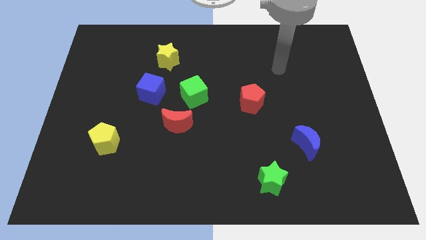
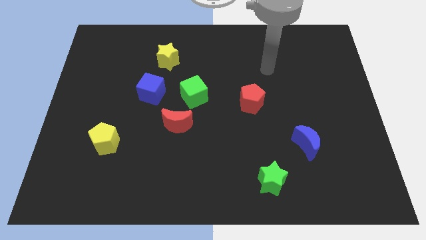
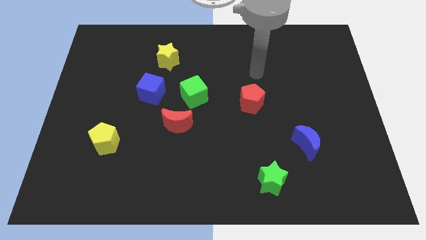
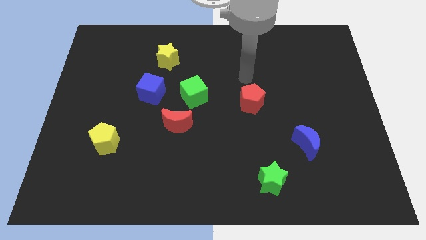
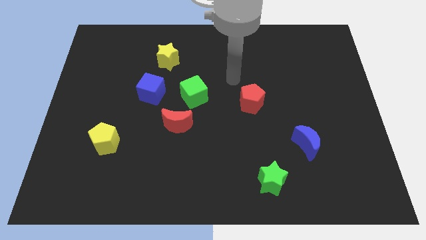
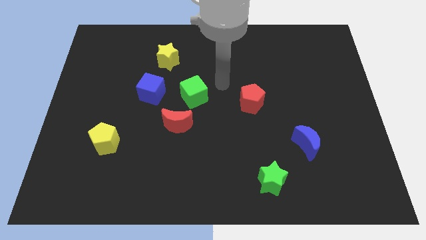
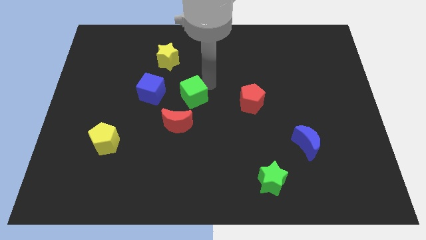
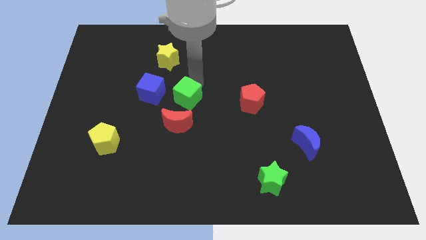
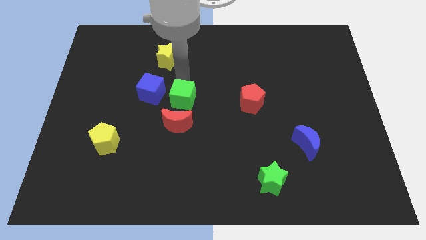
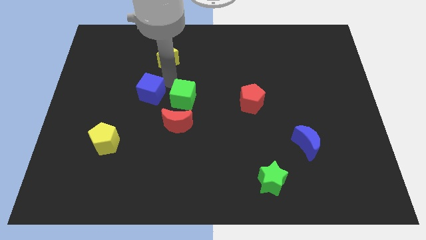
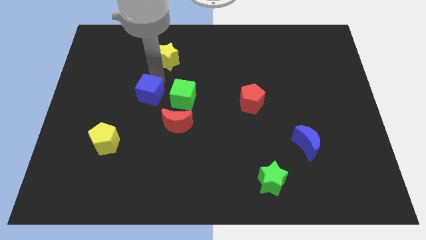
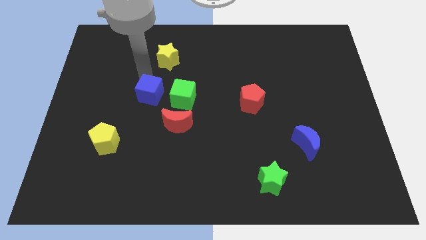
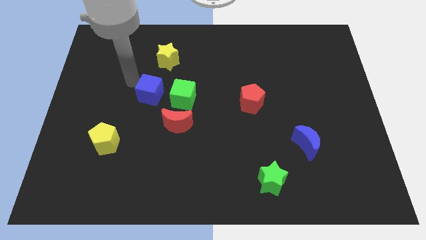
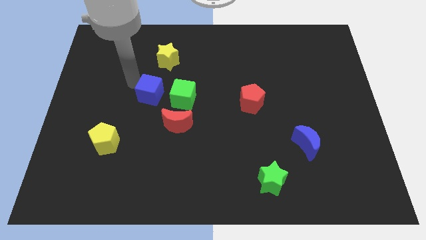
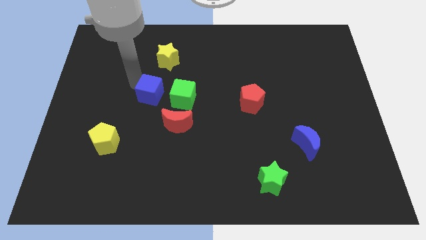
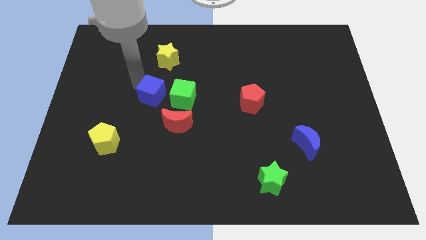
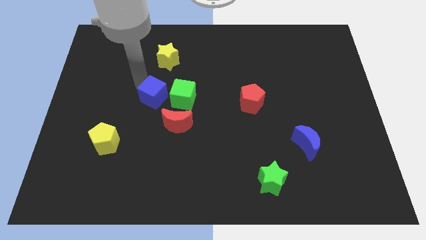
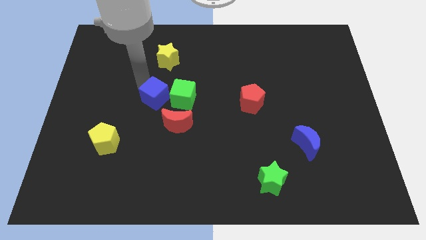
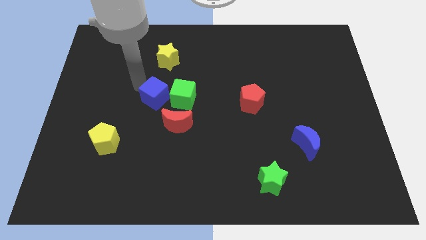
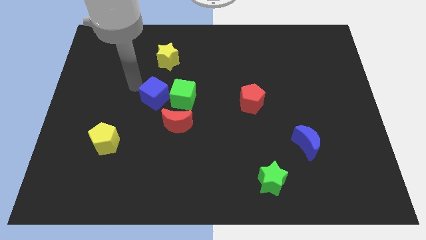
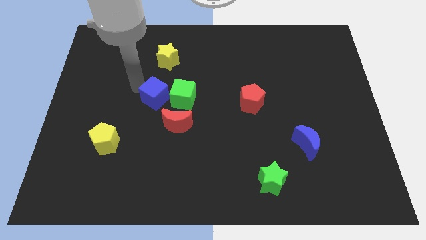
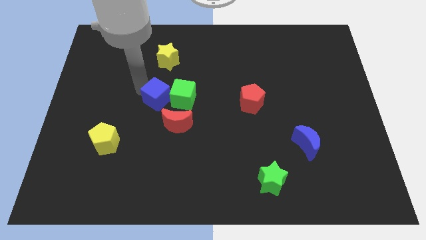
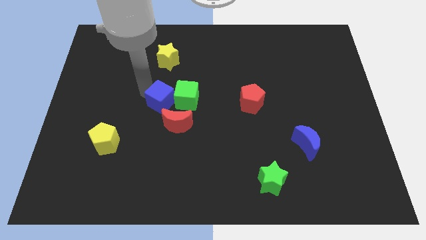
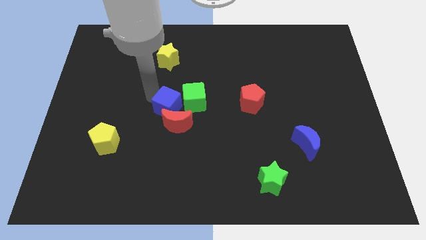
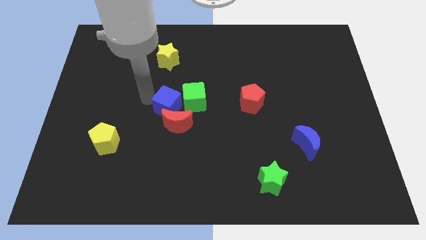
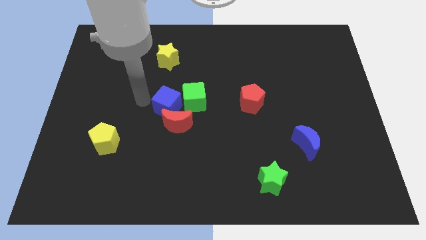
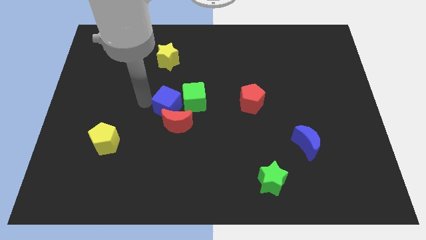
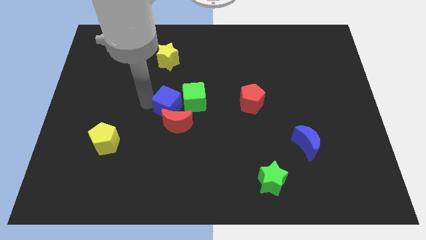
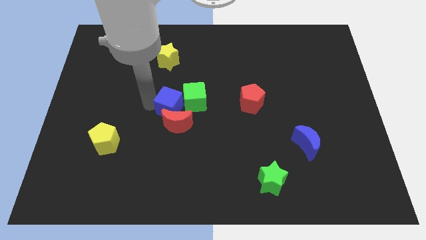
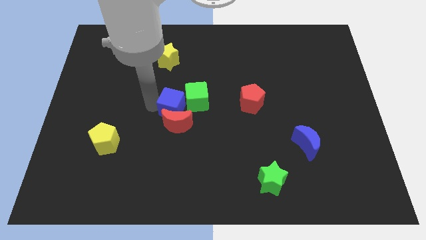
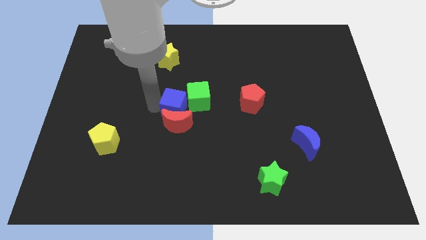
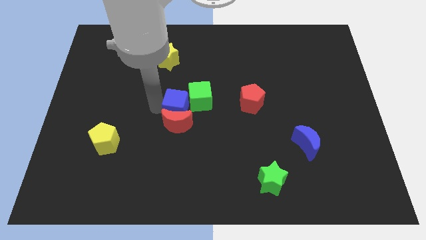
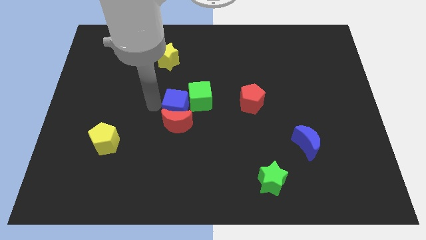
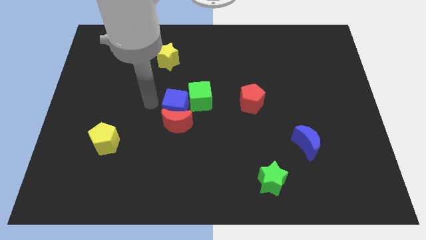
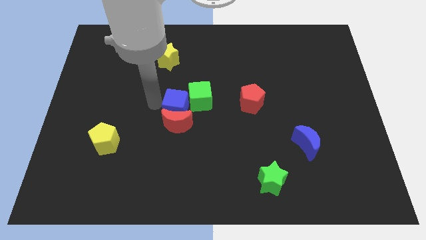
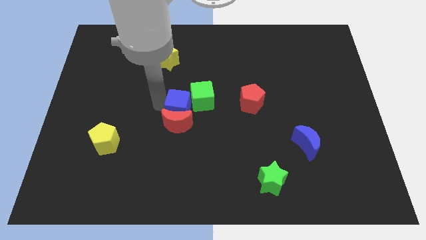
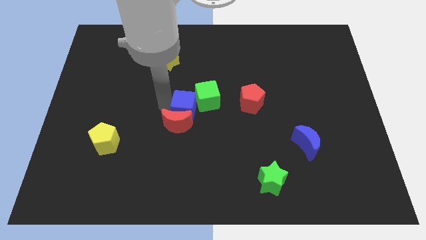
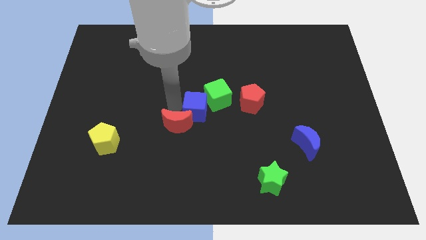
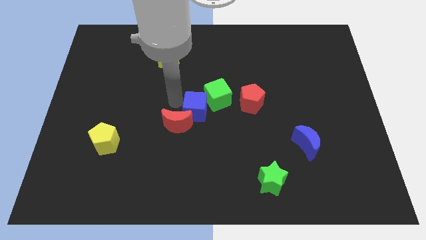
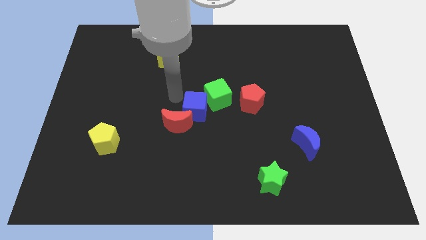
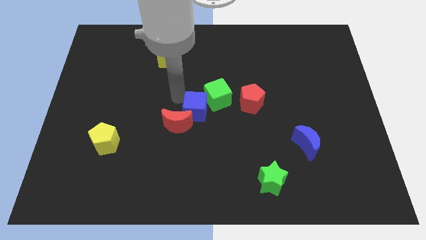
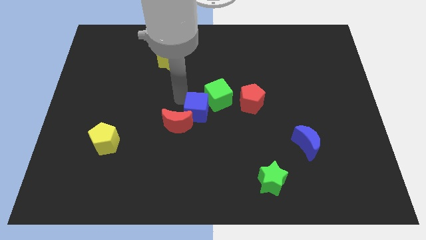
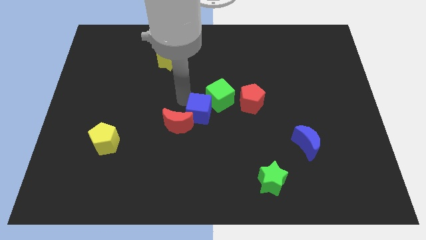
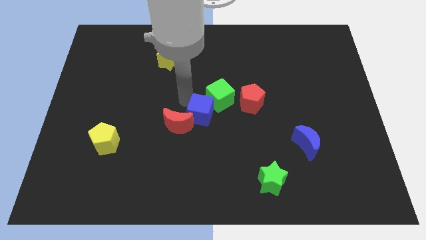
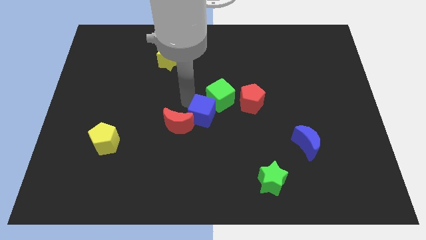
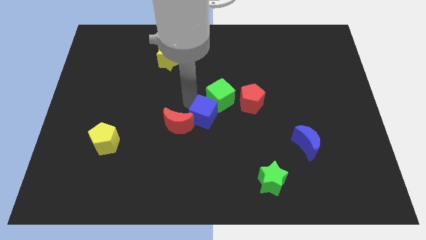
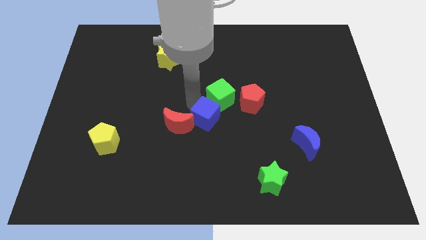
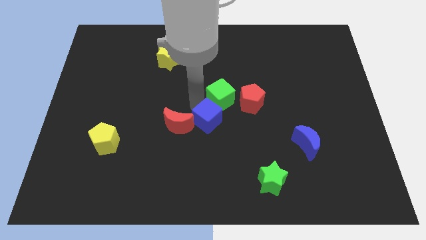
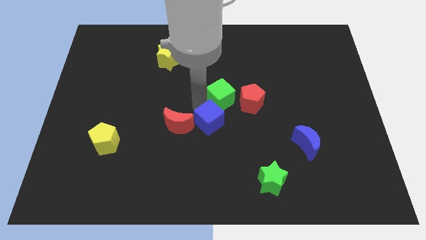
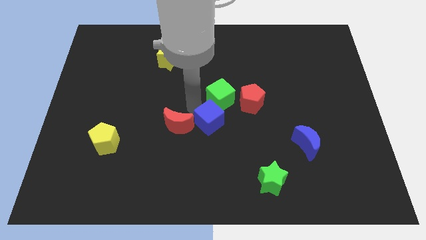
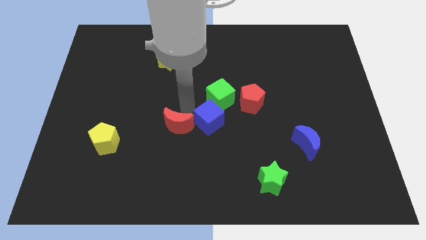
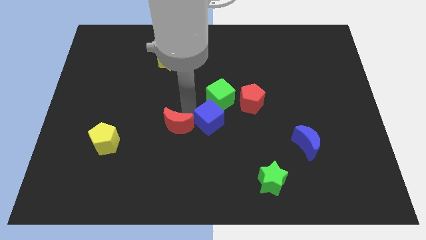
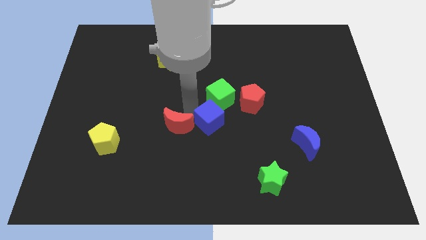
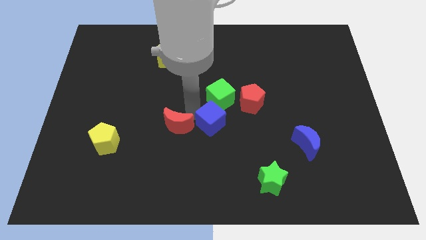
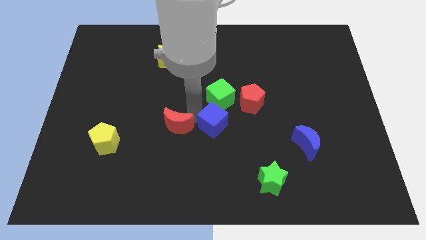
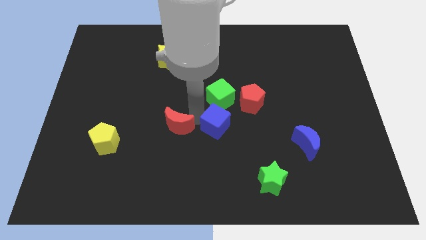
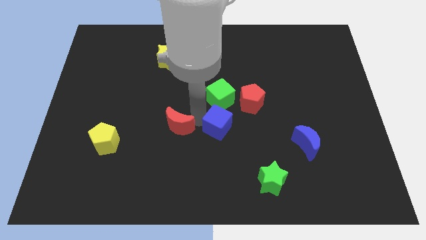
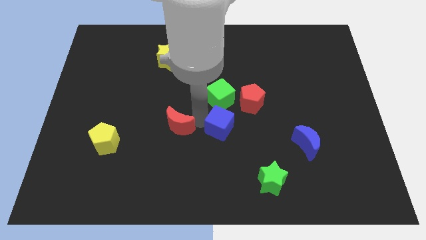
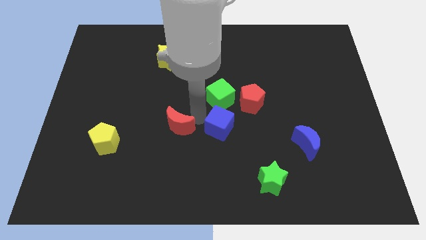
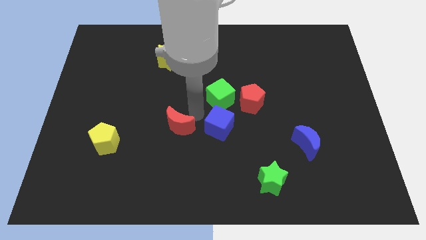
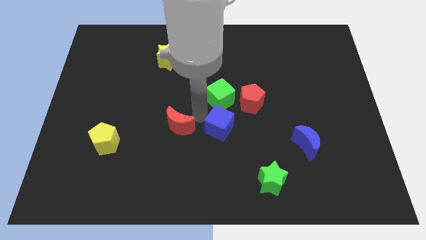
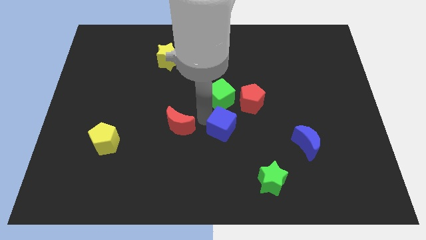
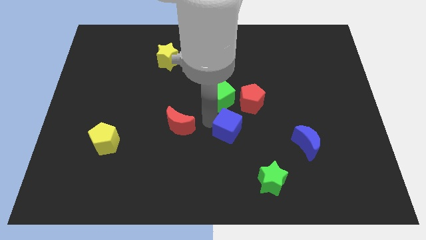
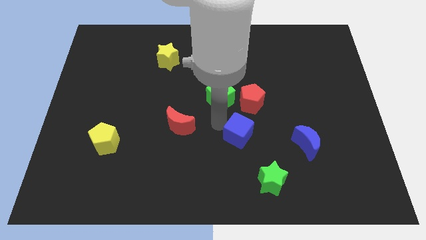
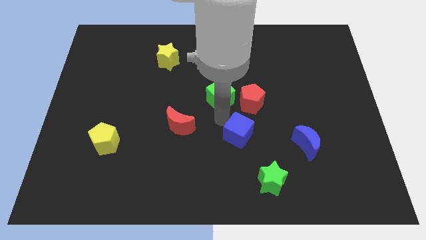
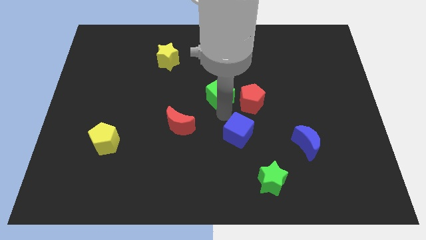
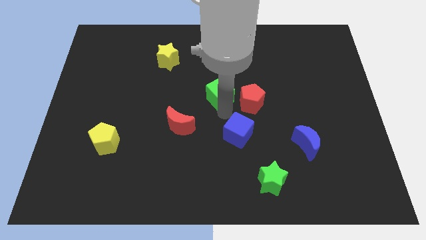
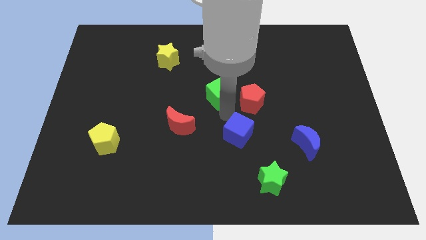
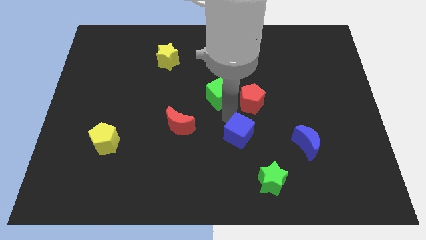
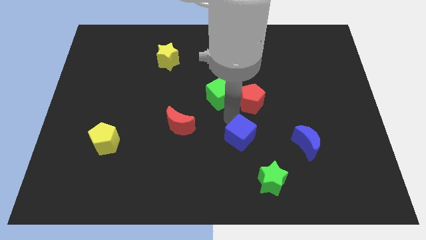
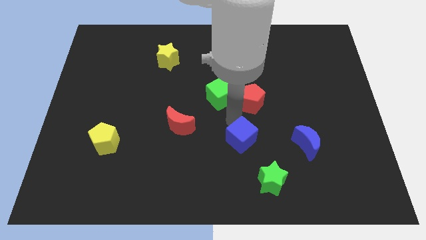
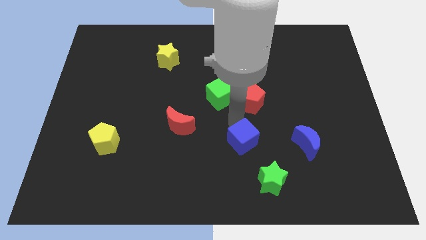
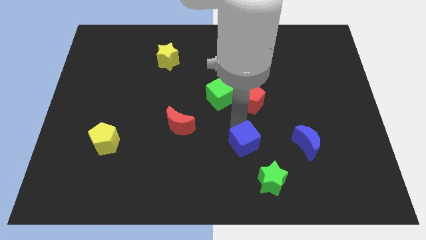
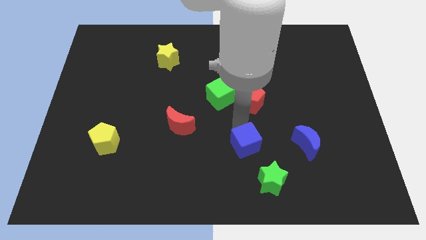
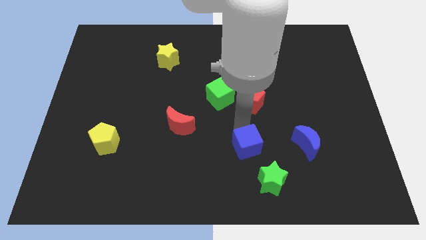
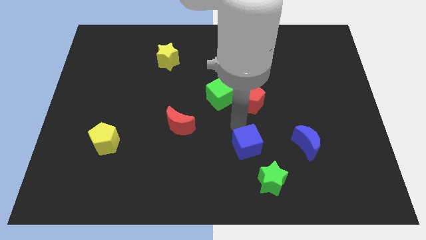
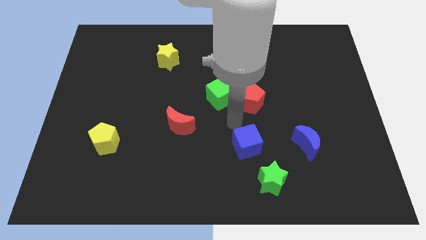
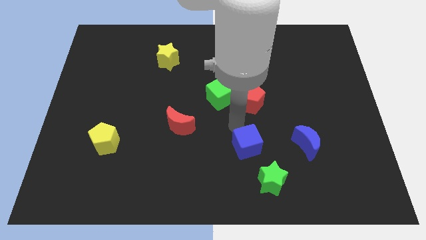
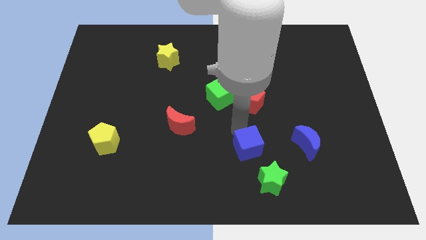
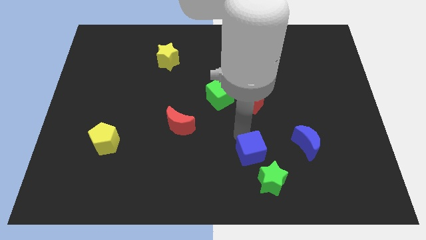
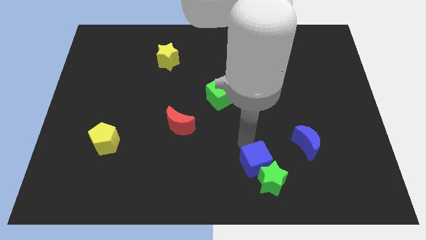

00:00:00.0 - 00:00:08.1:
move the blue cube close to the green star
